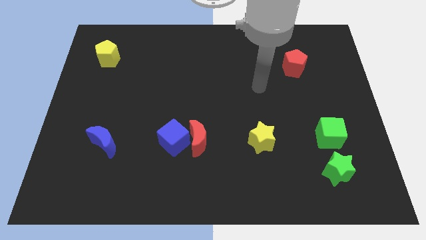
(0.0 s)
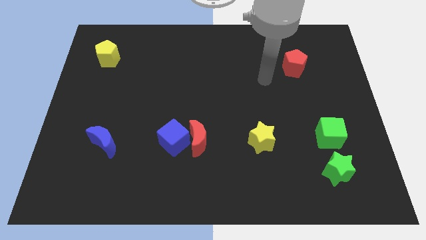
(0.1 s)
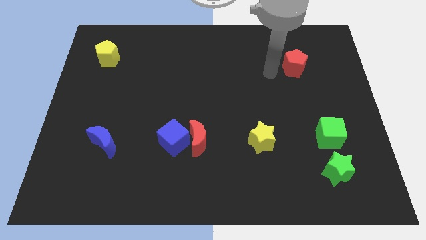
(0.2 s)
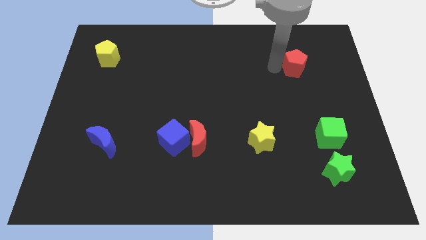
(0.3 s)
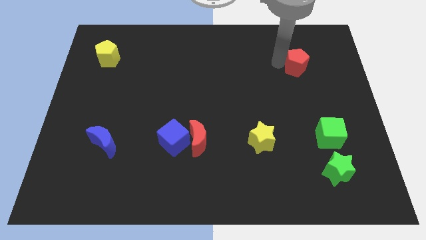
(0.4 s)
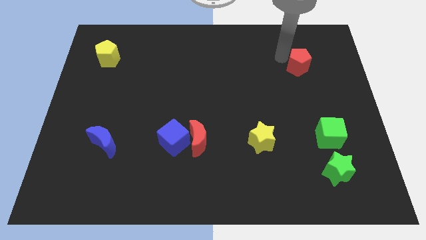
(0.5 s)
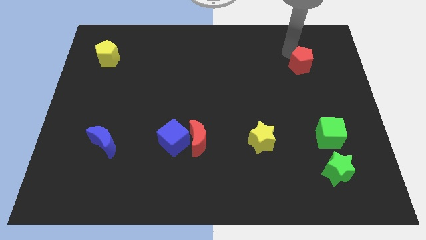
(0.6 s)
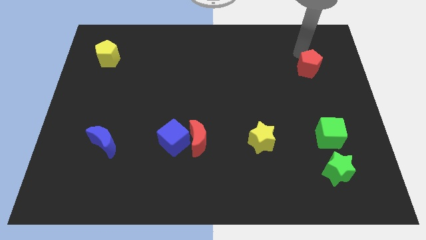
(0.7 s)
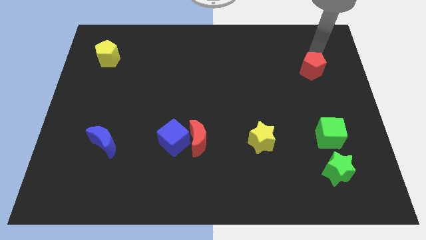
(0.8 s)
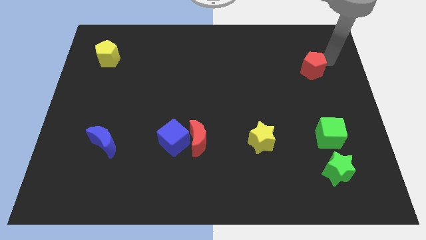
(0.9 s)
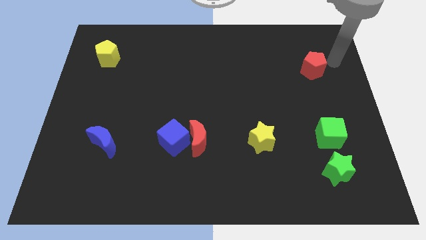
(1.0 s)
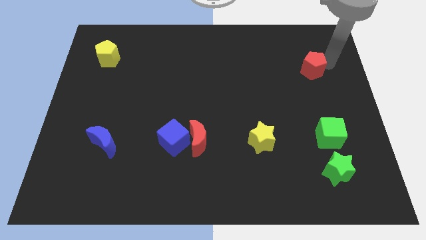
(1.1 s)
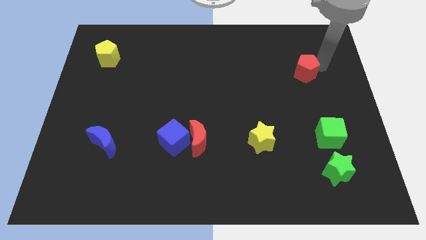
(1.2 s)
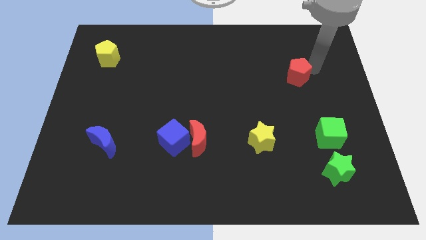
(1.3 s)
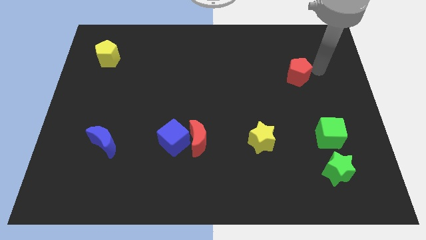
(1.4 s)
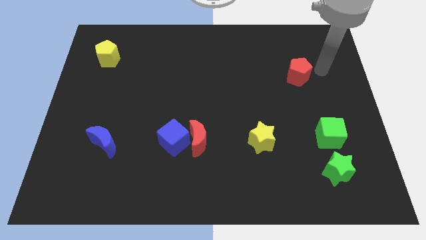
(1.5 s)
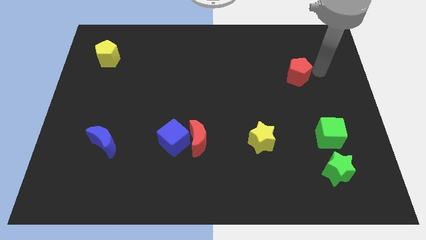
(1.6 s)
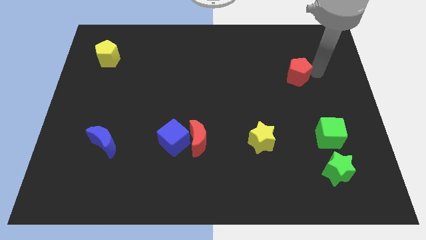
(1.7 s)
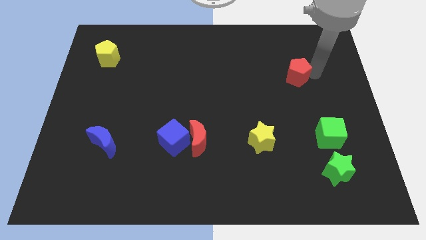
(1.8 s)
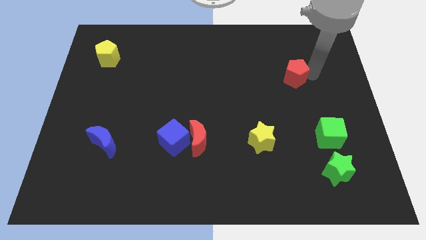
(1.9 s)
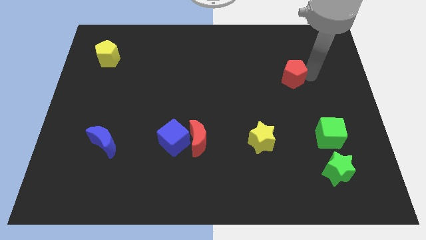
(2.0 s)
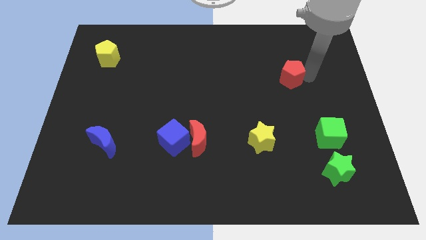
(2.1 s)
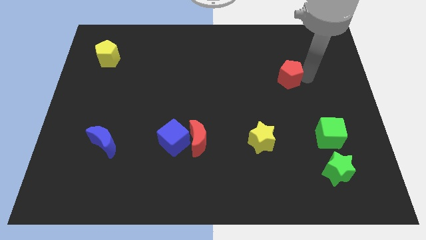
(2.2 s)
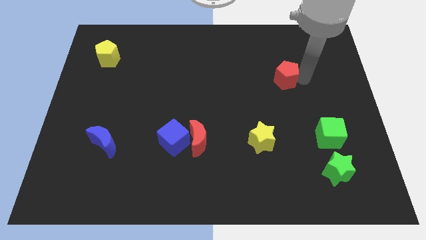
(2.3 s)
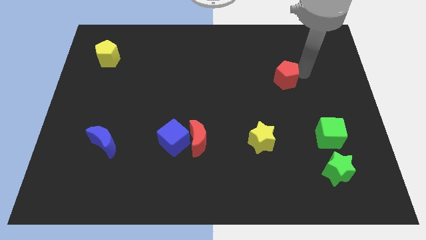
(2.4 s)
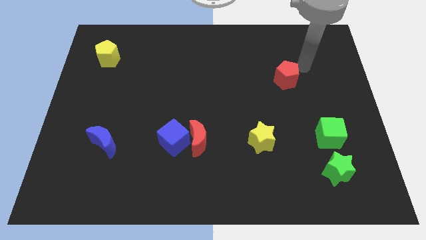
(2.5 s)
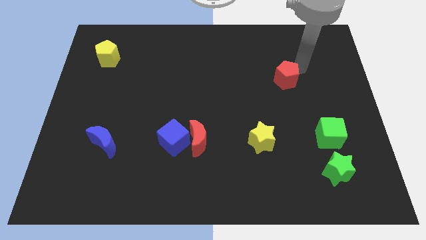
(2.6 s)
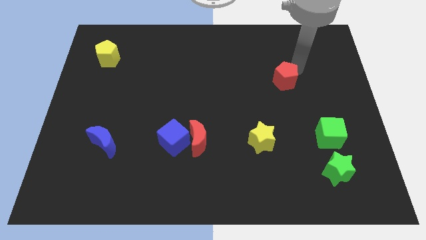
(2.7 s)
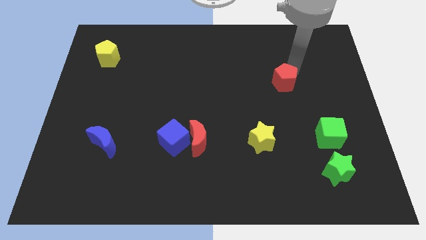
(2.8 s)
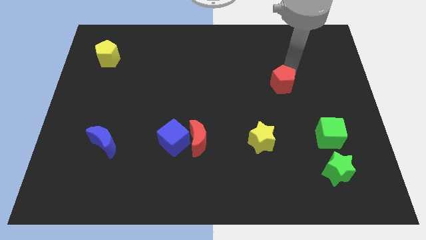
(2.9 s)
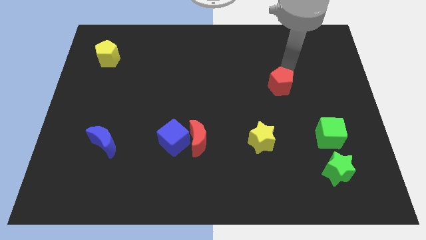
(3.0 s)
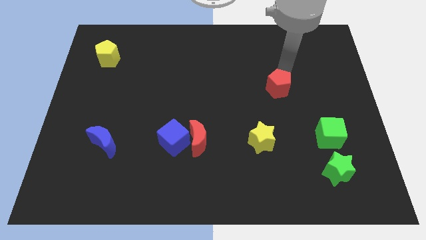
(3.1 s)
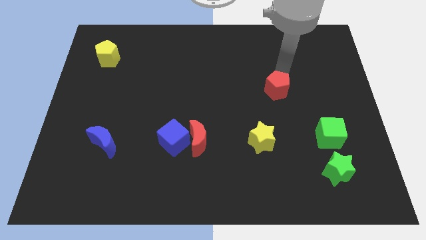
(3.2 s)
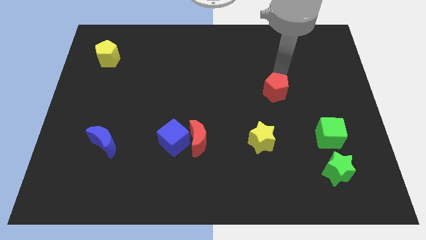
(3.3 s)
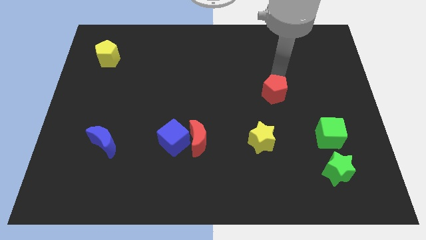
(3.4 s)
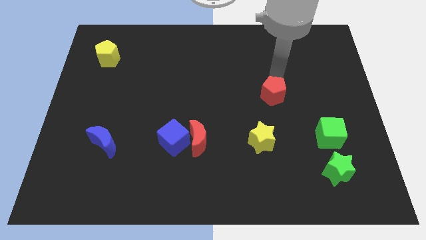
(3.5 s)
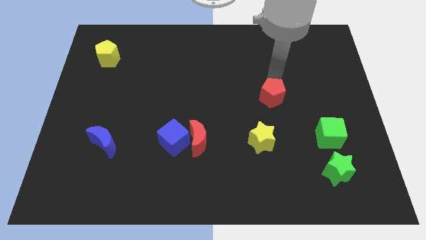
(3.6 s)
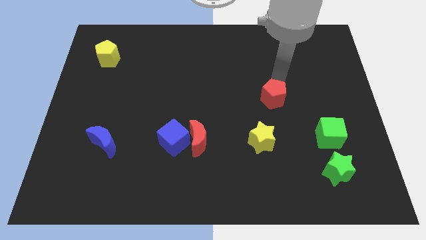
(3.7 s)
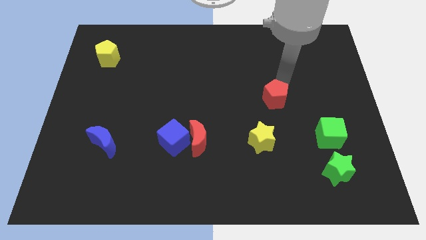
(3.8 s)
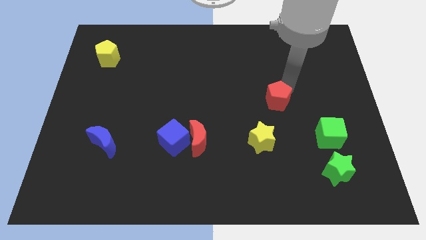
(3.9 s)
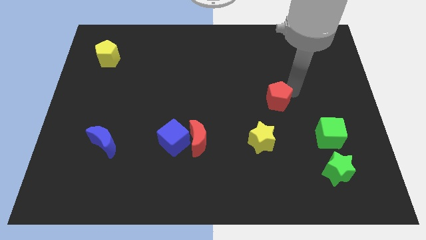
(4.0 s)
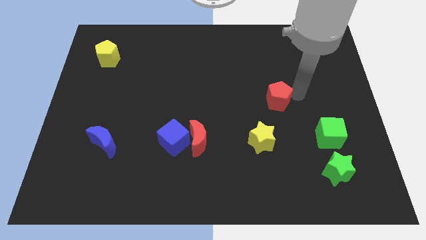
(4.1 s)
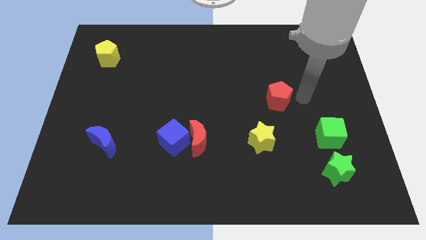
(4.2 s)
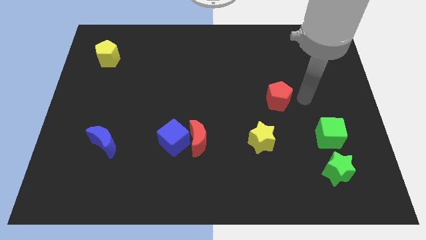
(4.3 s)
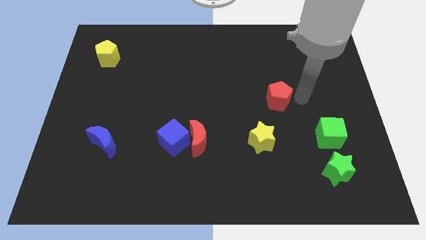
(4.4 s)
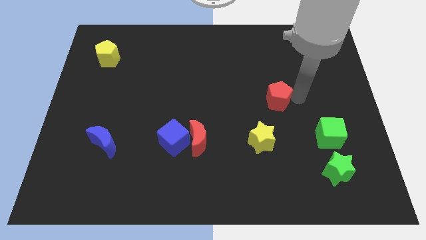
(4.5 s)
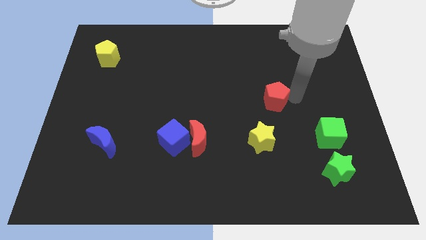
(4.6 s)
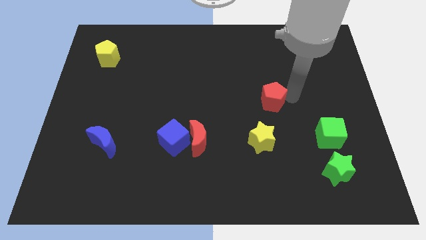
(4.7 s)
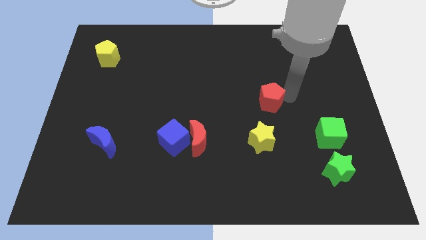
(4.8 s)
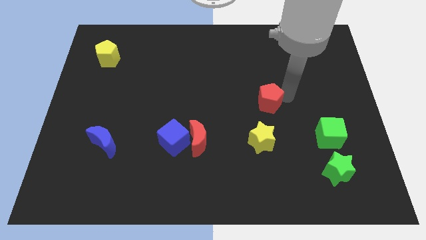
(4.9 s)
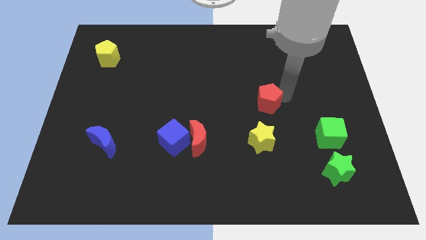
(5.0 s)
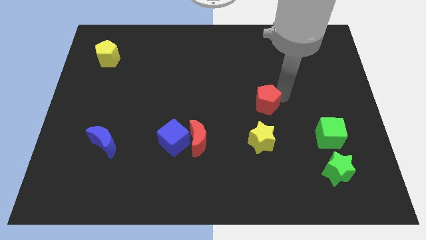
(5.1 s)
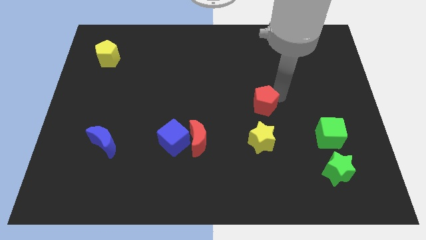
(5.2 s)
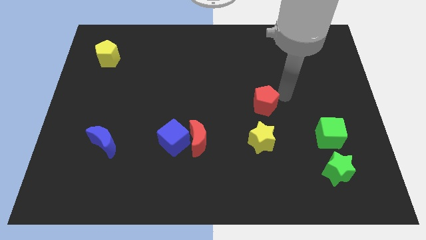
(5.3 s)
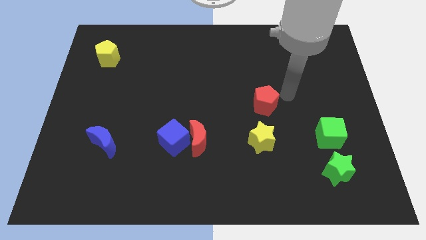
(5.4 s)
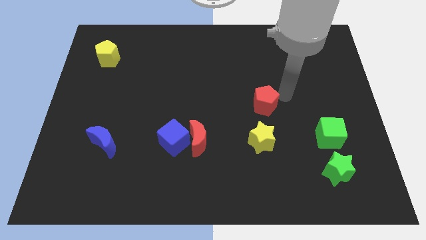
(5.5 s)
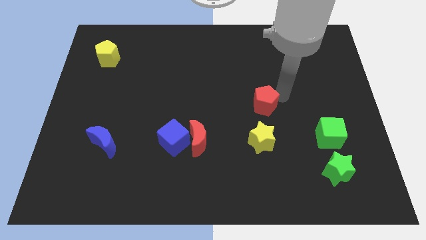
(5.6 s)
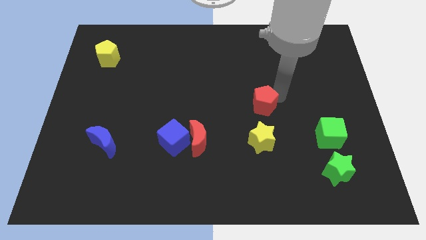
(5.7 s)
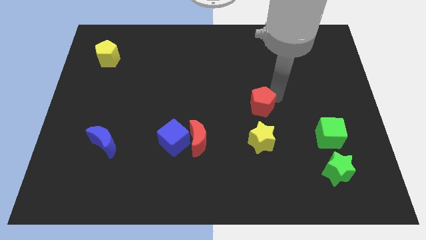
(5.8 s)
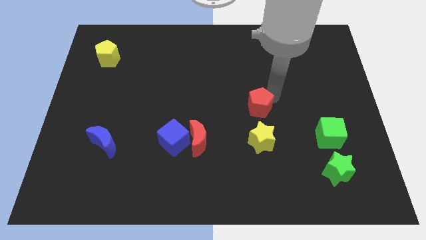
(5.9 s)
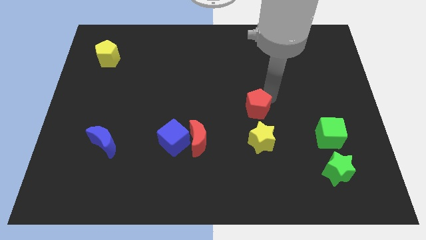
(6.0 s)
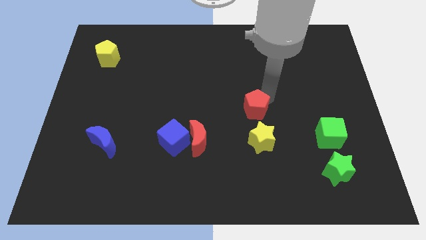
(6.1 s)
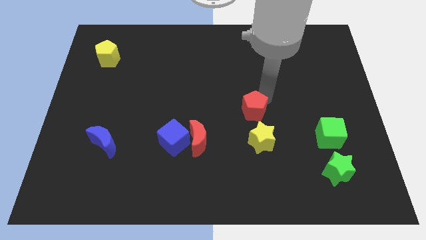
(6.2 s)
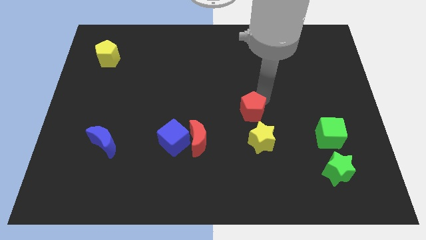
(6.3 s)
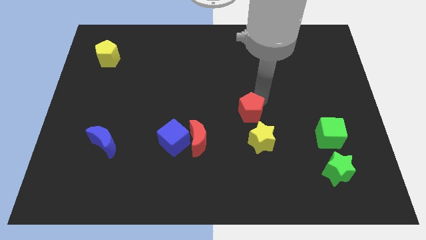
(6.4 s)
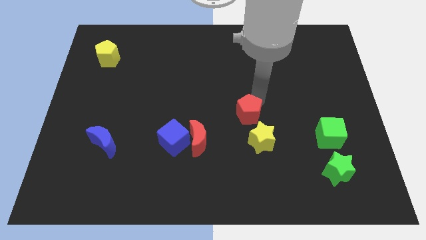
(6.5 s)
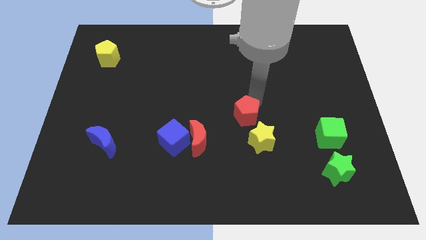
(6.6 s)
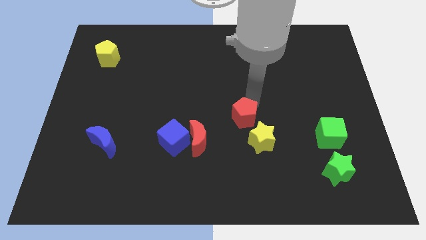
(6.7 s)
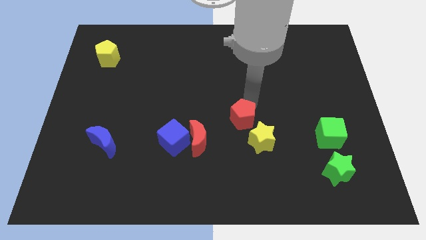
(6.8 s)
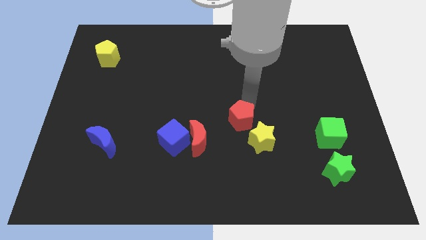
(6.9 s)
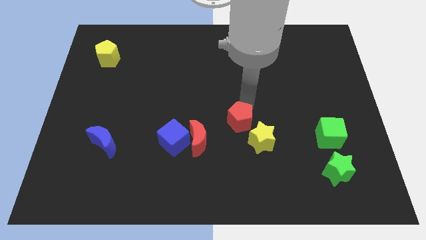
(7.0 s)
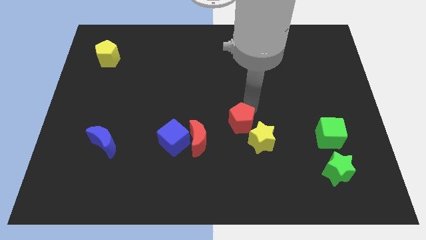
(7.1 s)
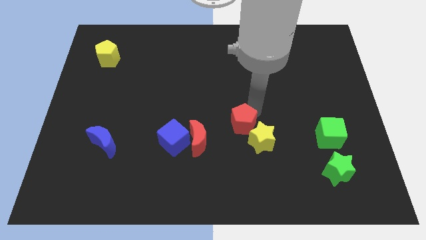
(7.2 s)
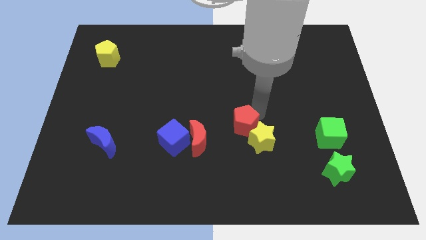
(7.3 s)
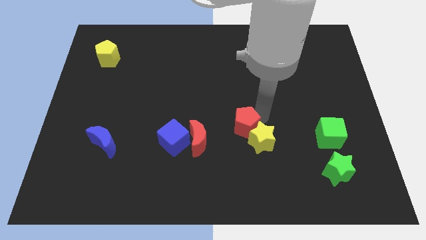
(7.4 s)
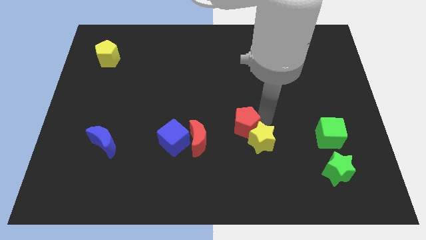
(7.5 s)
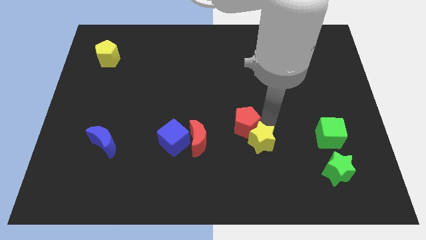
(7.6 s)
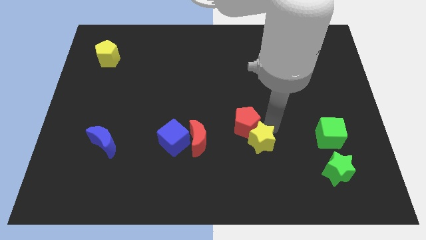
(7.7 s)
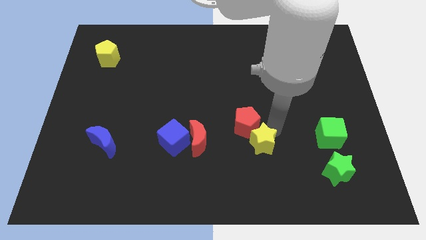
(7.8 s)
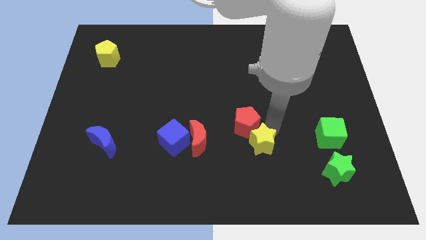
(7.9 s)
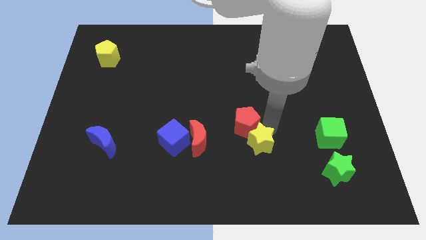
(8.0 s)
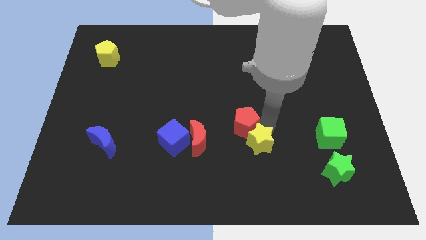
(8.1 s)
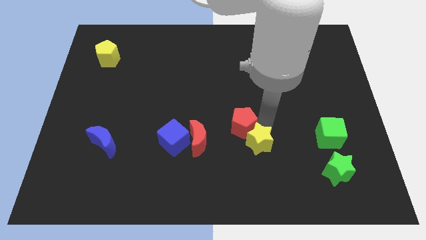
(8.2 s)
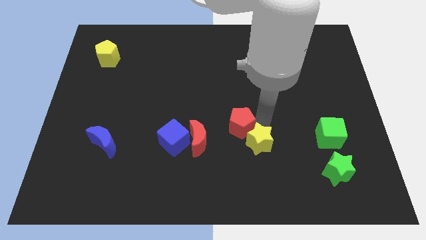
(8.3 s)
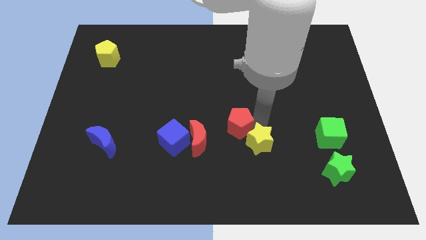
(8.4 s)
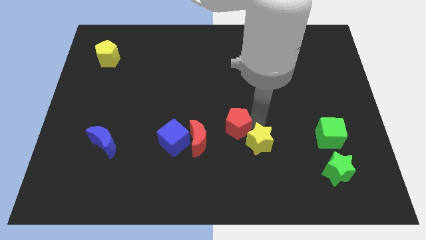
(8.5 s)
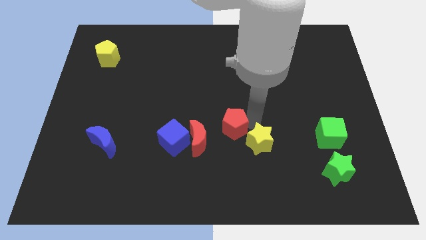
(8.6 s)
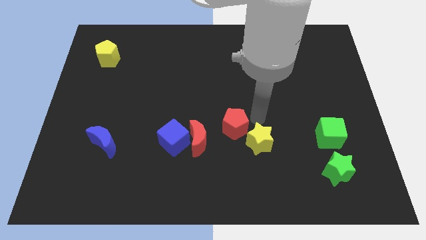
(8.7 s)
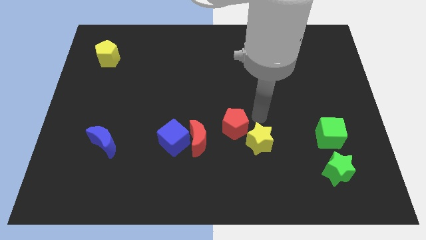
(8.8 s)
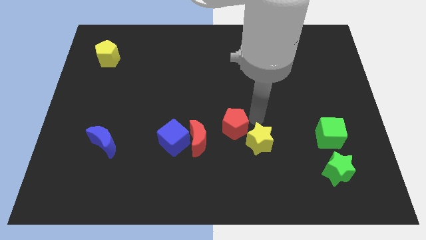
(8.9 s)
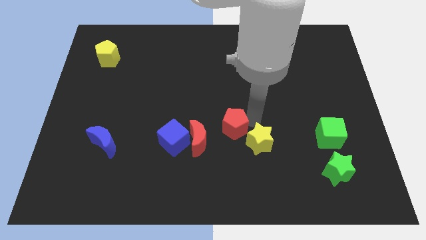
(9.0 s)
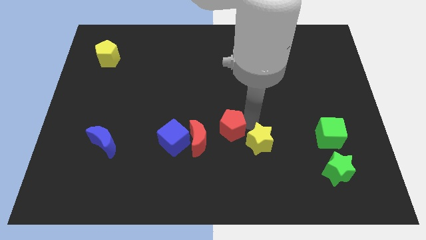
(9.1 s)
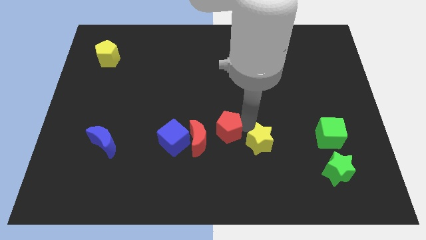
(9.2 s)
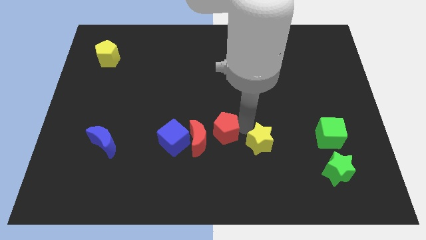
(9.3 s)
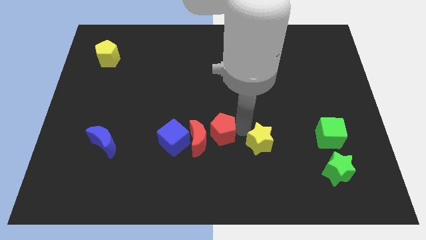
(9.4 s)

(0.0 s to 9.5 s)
slide the red pentagon next to the red moon
